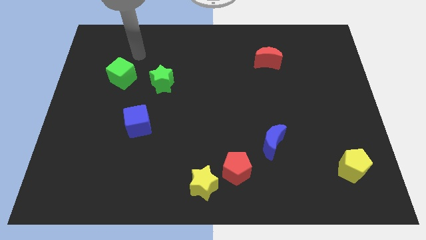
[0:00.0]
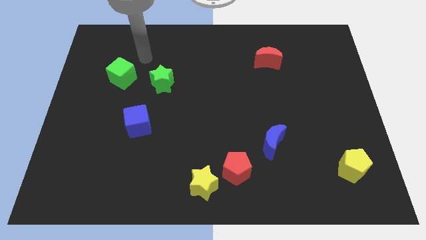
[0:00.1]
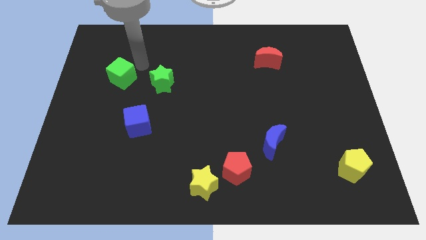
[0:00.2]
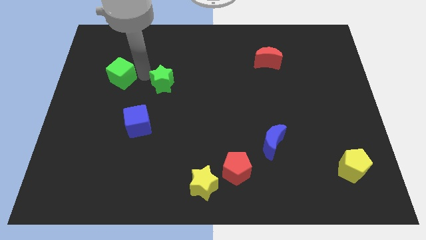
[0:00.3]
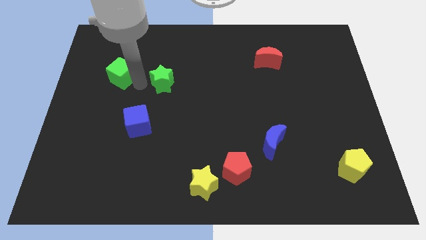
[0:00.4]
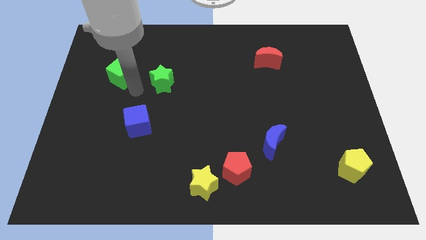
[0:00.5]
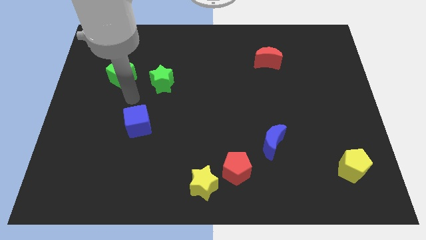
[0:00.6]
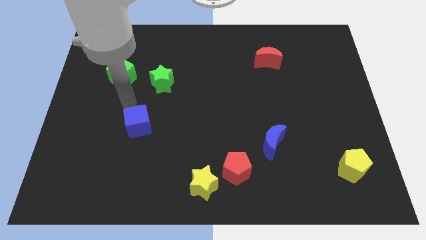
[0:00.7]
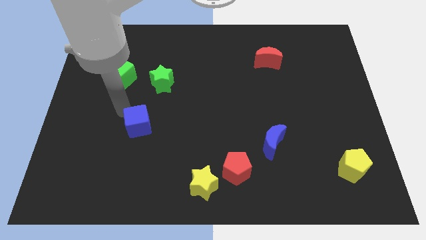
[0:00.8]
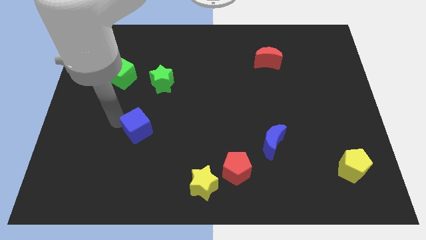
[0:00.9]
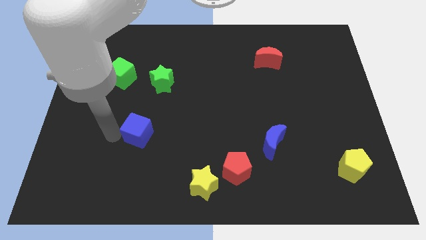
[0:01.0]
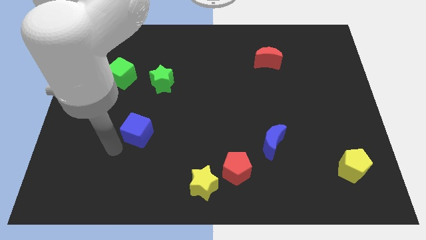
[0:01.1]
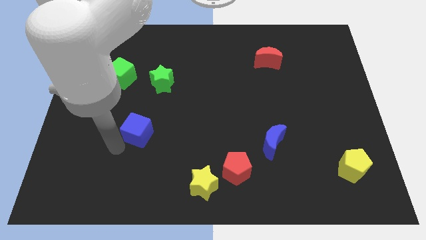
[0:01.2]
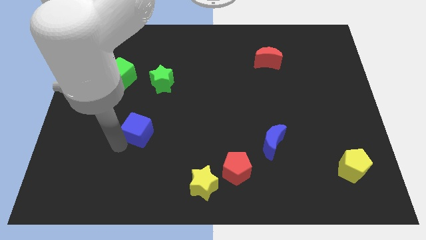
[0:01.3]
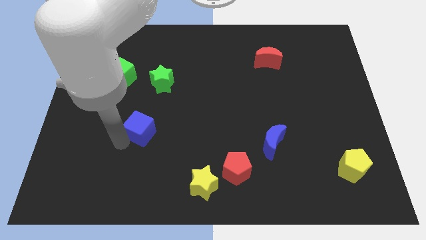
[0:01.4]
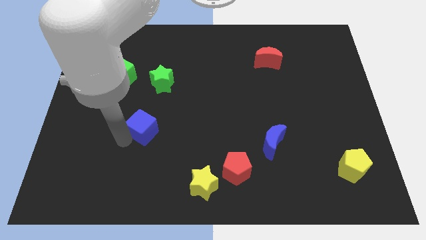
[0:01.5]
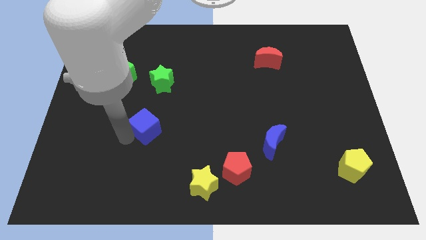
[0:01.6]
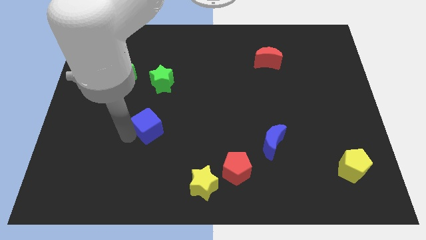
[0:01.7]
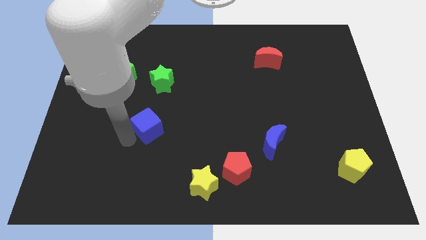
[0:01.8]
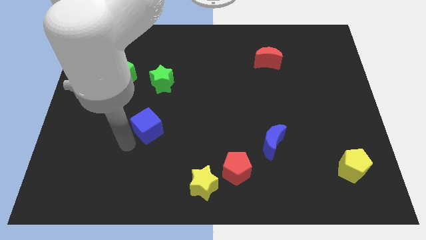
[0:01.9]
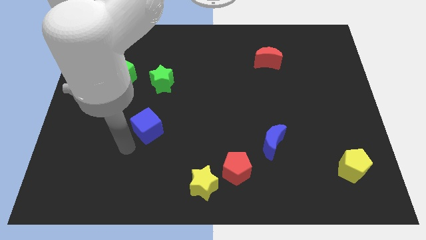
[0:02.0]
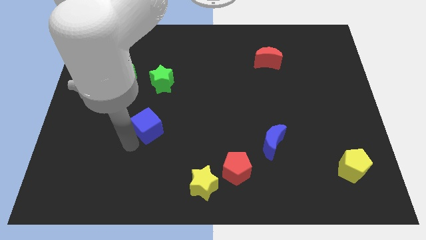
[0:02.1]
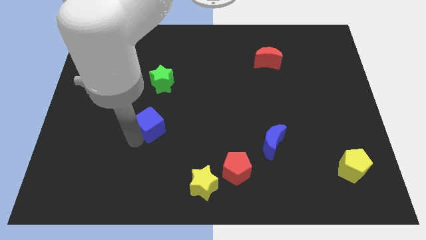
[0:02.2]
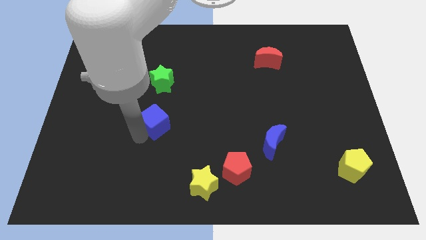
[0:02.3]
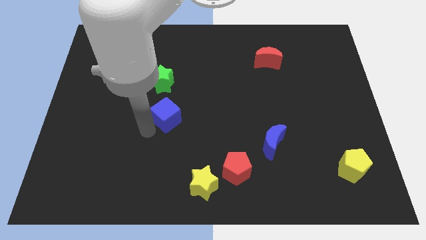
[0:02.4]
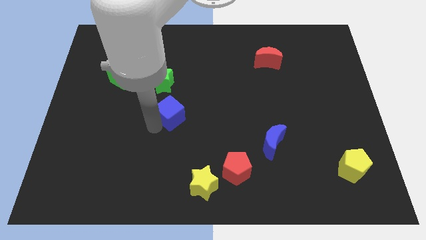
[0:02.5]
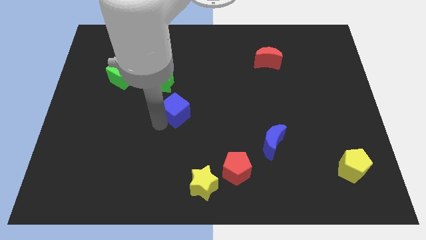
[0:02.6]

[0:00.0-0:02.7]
slightly slide the blue cube up and to the right

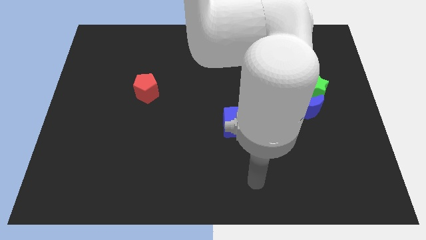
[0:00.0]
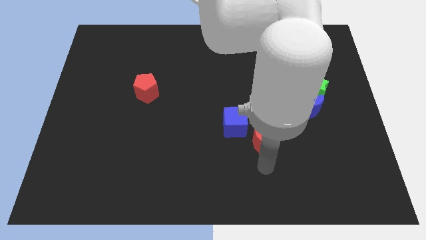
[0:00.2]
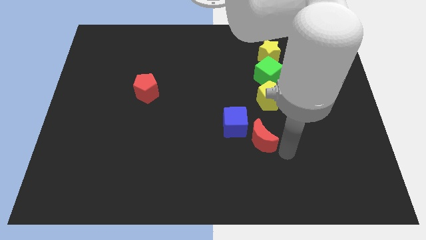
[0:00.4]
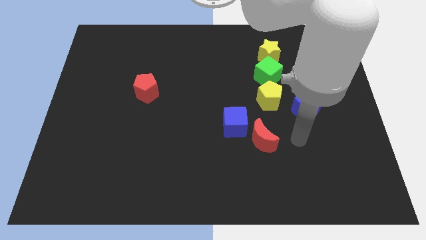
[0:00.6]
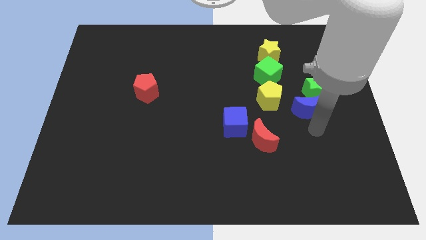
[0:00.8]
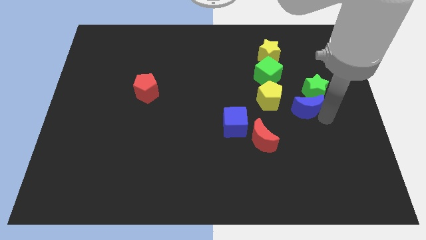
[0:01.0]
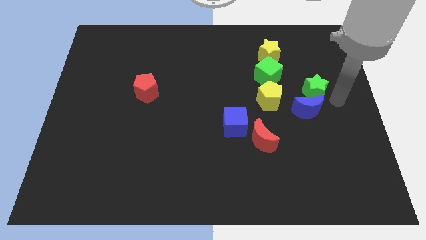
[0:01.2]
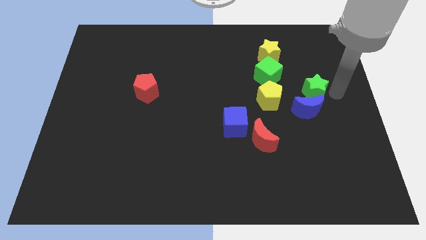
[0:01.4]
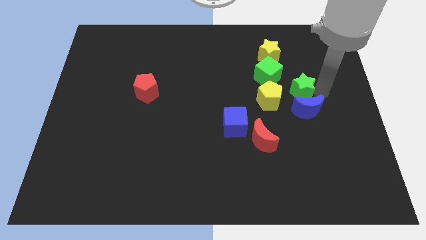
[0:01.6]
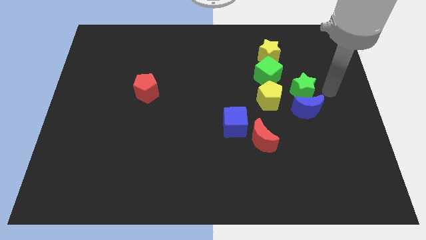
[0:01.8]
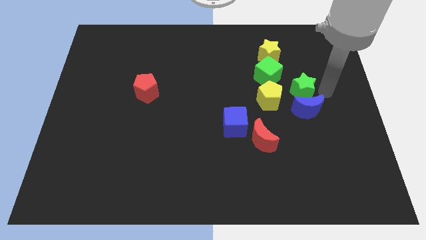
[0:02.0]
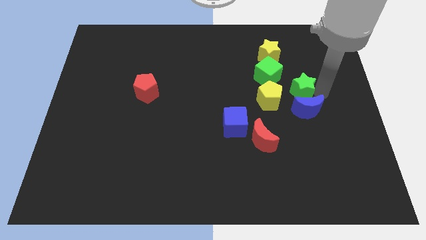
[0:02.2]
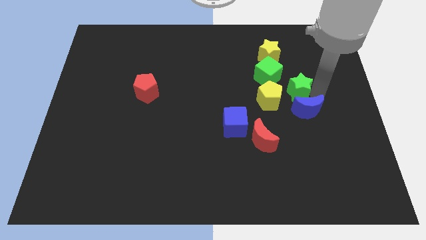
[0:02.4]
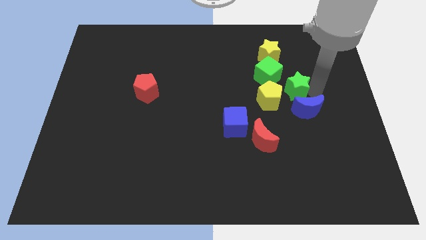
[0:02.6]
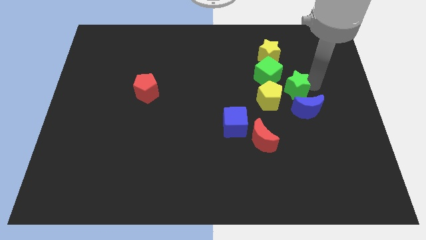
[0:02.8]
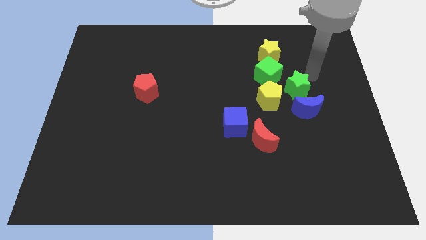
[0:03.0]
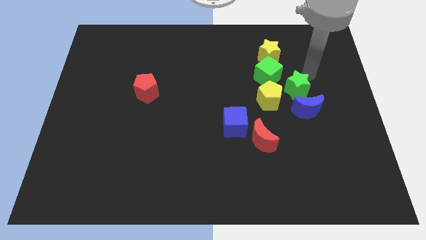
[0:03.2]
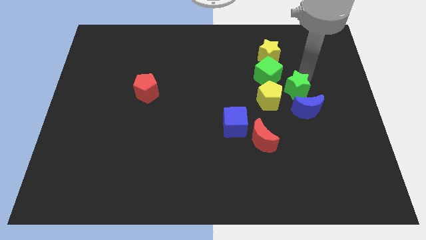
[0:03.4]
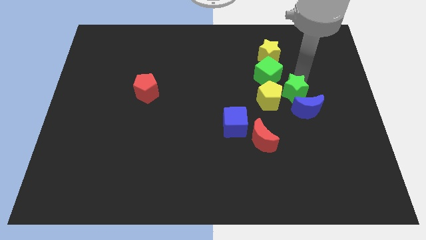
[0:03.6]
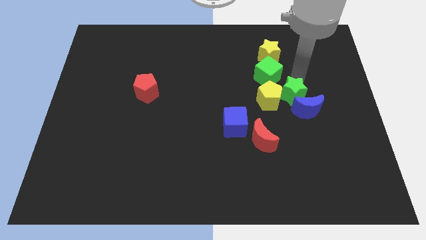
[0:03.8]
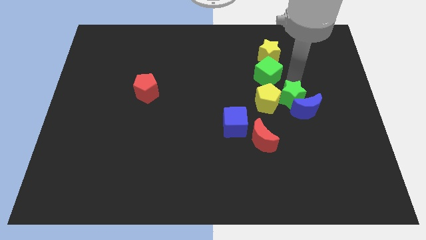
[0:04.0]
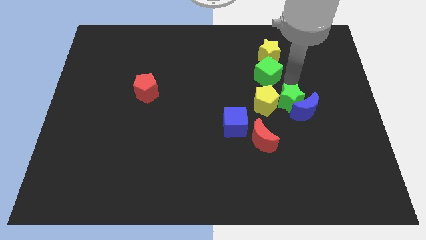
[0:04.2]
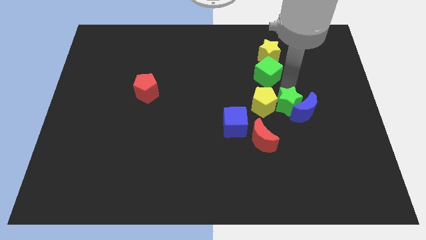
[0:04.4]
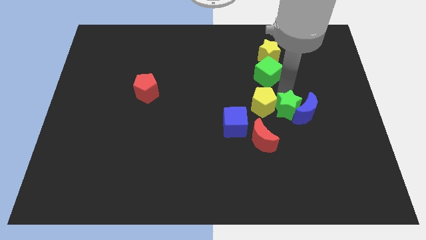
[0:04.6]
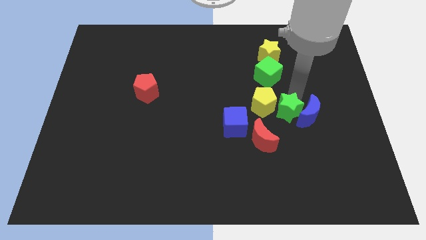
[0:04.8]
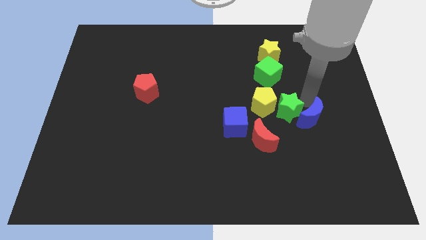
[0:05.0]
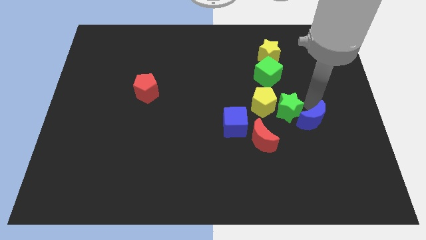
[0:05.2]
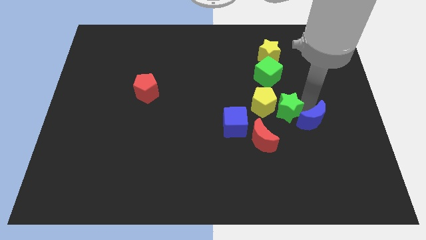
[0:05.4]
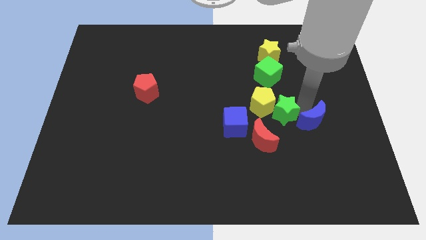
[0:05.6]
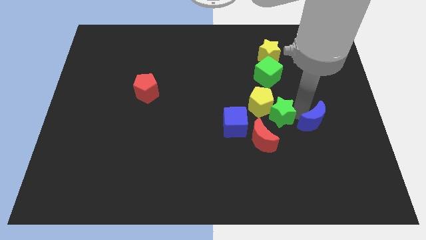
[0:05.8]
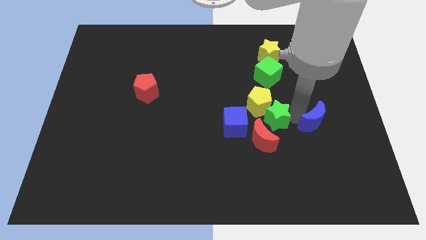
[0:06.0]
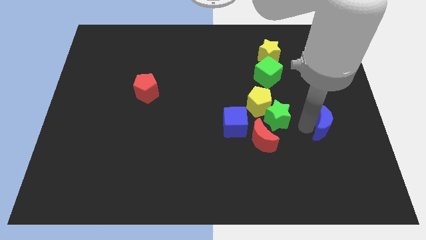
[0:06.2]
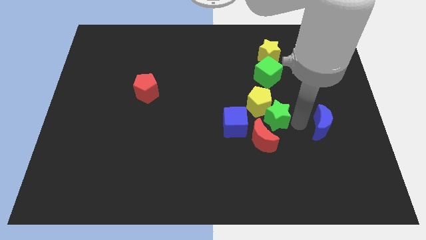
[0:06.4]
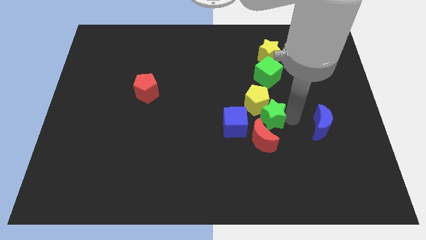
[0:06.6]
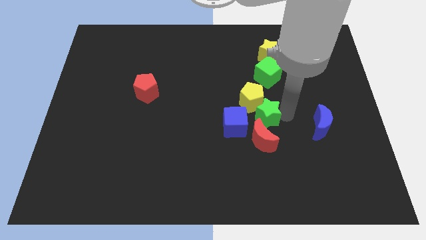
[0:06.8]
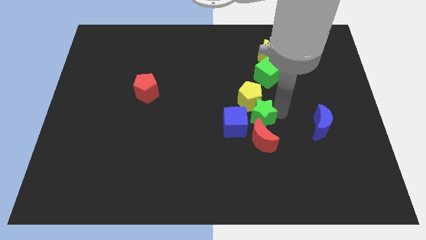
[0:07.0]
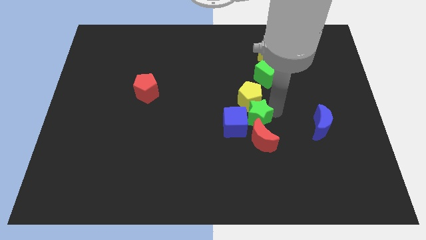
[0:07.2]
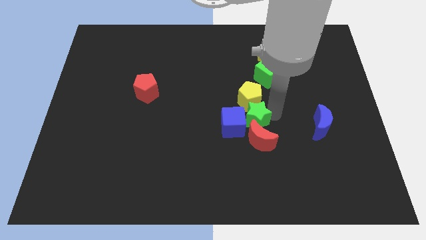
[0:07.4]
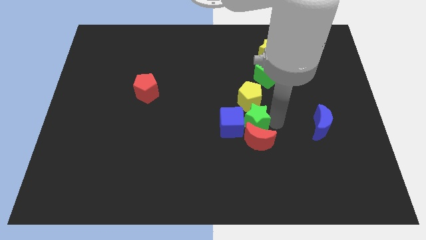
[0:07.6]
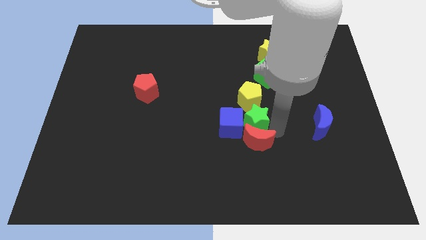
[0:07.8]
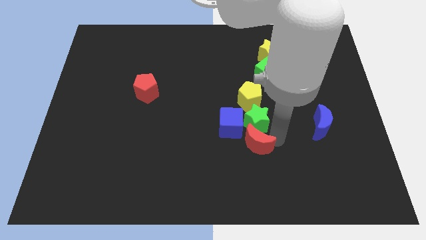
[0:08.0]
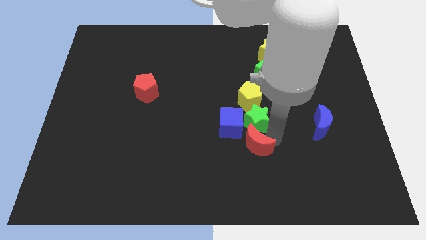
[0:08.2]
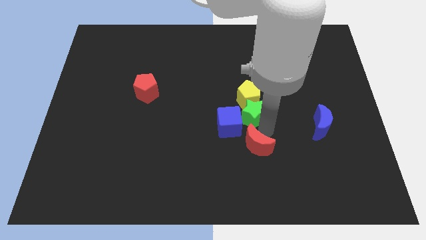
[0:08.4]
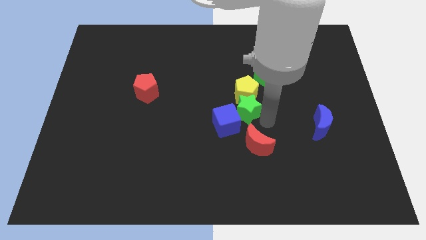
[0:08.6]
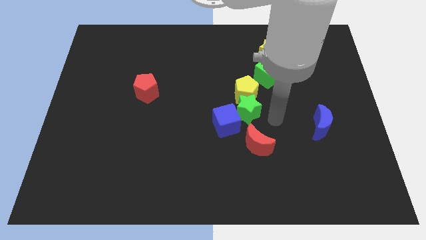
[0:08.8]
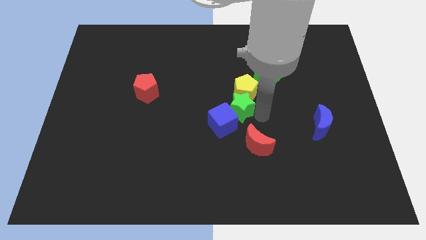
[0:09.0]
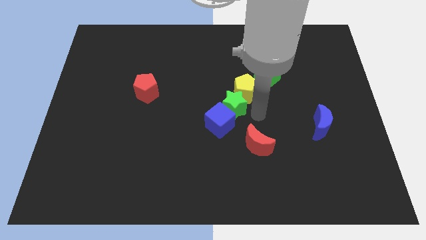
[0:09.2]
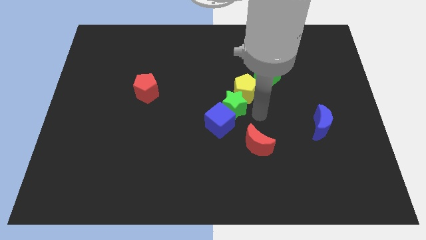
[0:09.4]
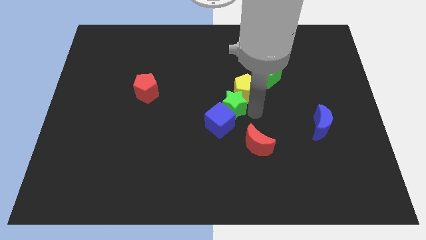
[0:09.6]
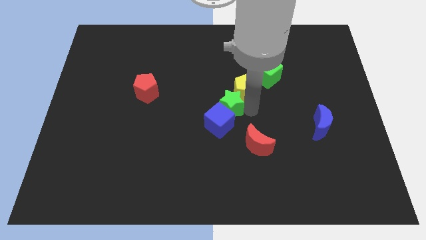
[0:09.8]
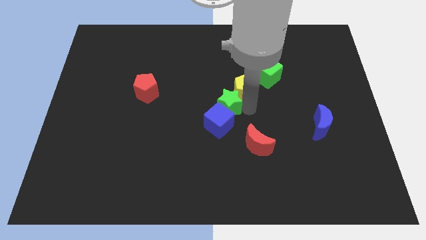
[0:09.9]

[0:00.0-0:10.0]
move the green star left

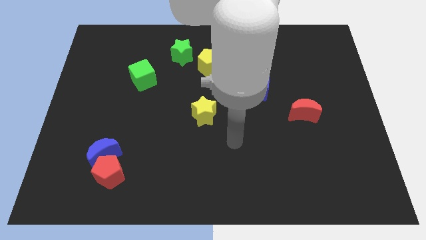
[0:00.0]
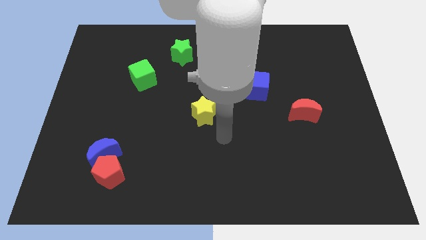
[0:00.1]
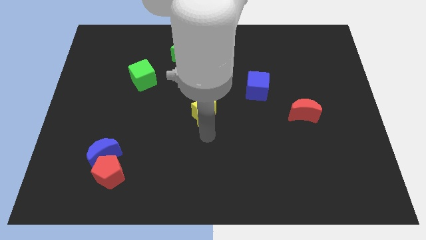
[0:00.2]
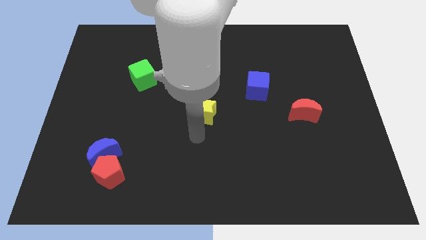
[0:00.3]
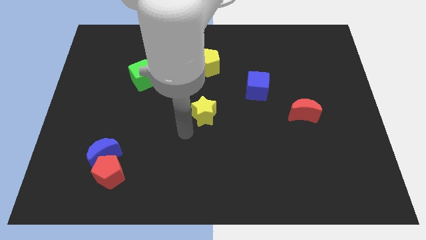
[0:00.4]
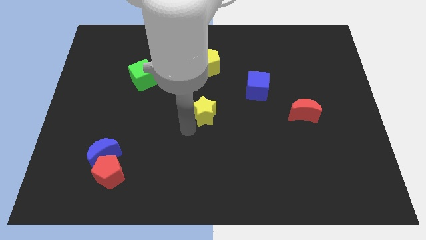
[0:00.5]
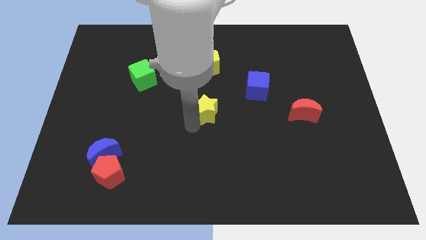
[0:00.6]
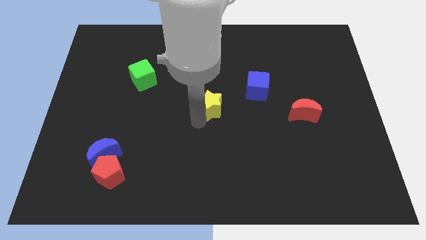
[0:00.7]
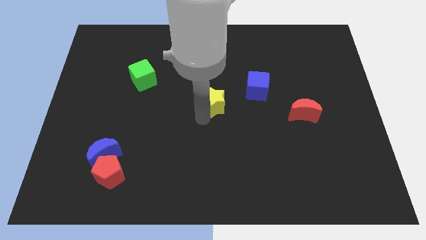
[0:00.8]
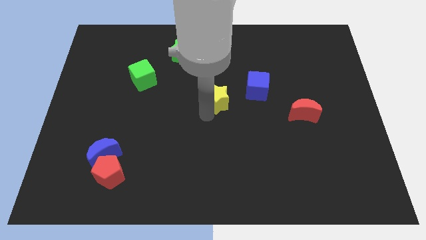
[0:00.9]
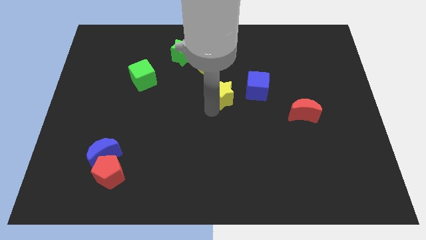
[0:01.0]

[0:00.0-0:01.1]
push the yellow star slightly diagonally up and to the right
